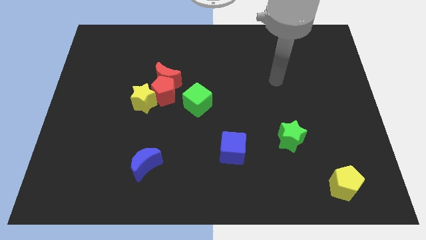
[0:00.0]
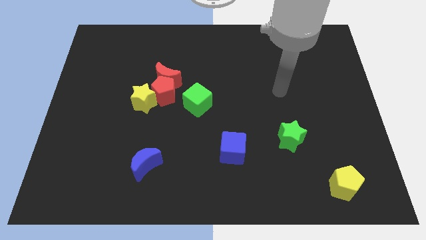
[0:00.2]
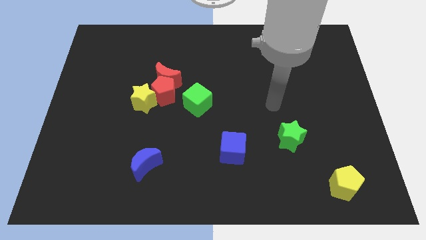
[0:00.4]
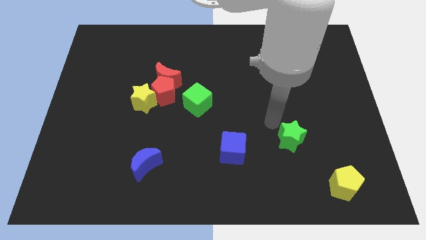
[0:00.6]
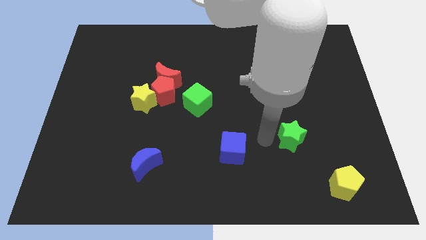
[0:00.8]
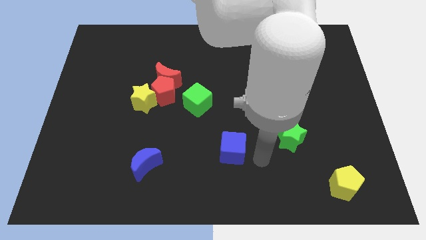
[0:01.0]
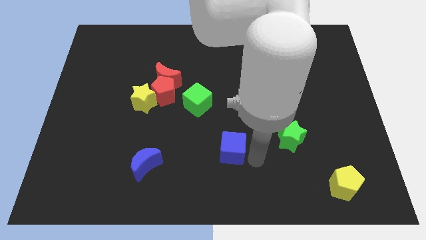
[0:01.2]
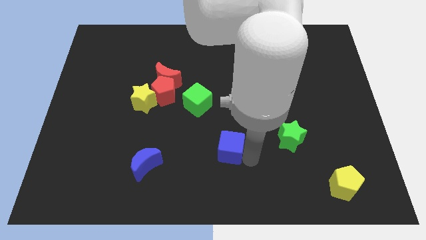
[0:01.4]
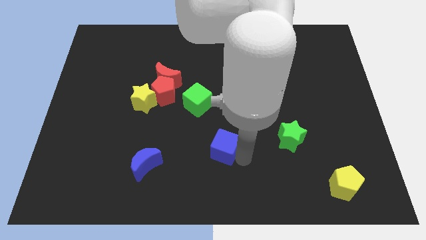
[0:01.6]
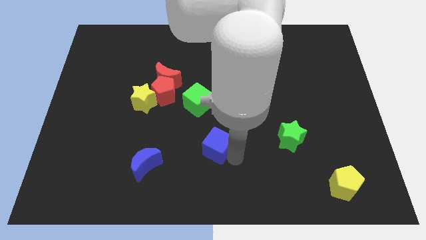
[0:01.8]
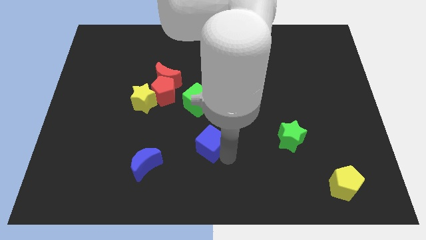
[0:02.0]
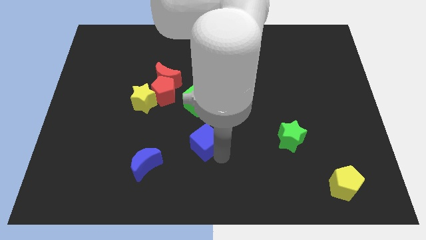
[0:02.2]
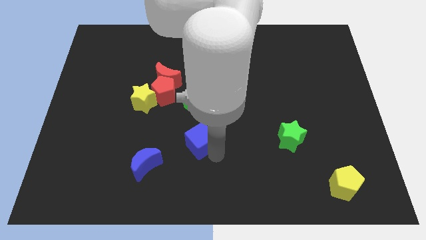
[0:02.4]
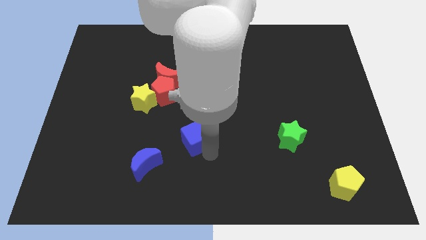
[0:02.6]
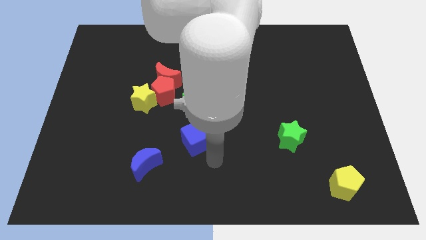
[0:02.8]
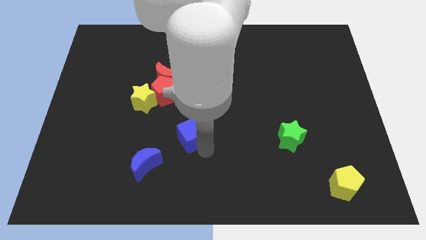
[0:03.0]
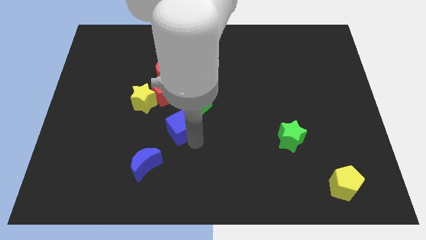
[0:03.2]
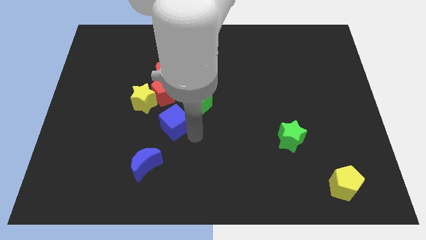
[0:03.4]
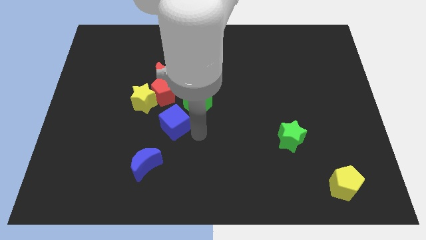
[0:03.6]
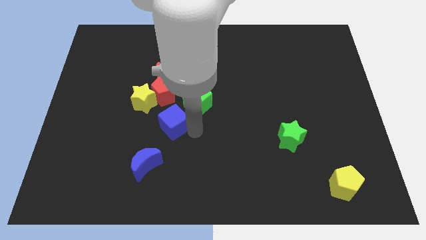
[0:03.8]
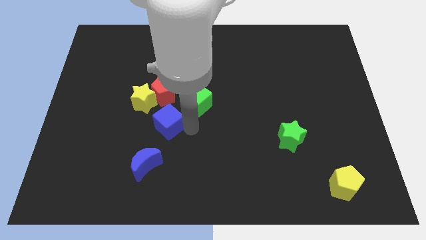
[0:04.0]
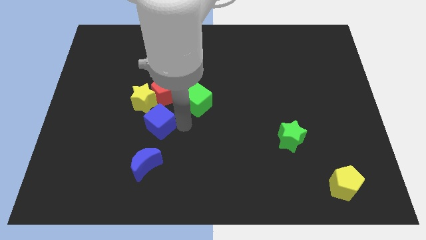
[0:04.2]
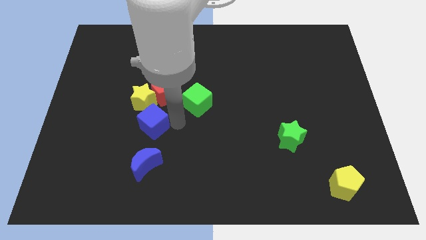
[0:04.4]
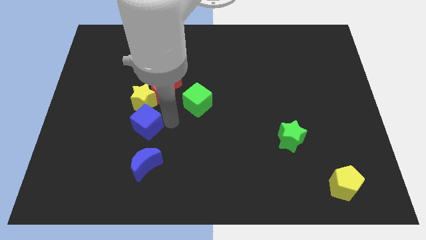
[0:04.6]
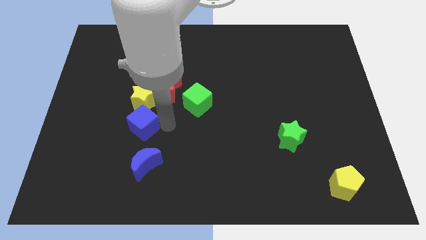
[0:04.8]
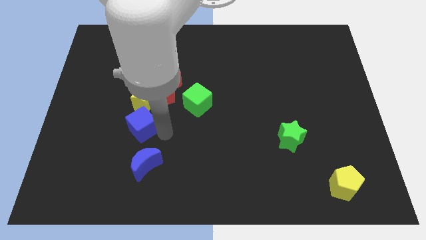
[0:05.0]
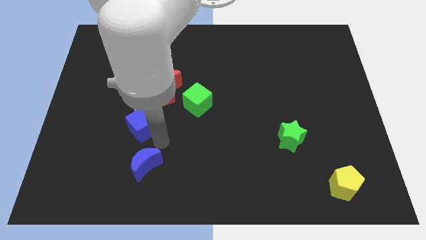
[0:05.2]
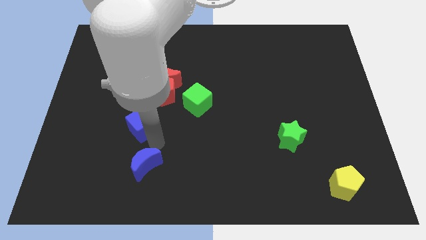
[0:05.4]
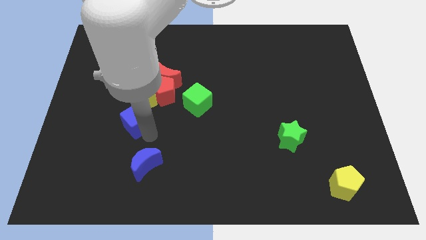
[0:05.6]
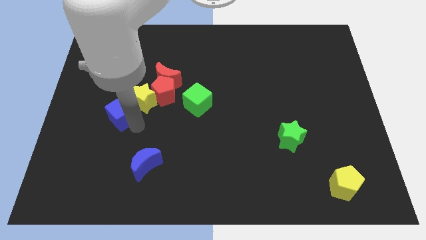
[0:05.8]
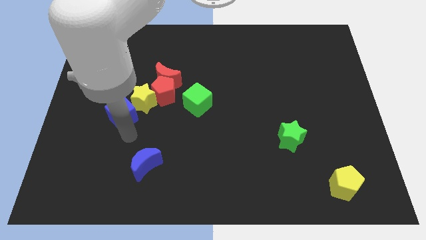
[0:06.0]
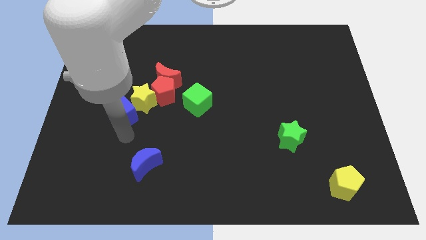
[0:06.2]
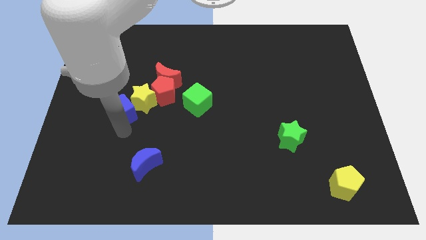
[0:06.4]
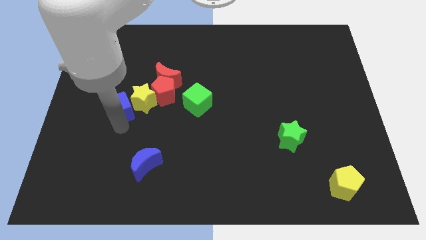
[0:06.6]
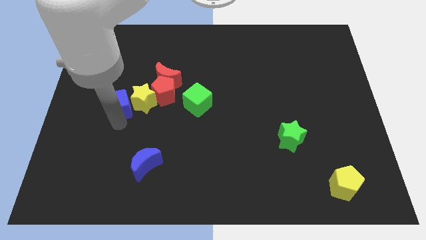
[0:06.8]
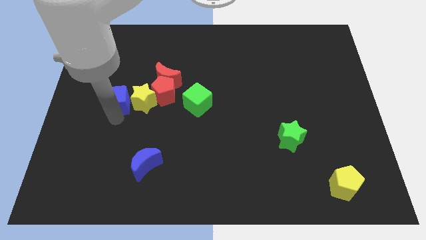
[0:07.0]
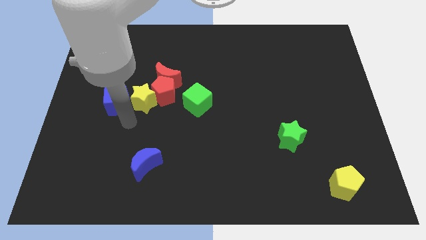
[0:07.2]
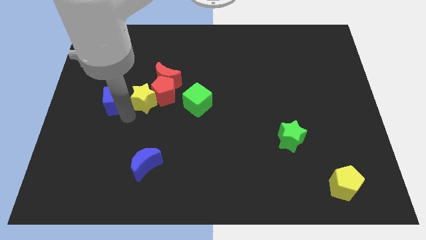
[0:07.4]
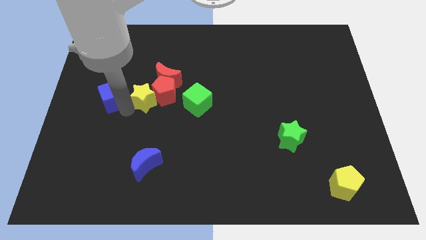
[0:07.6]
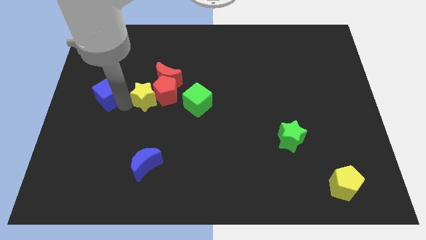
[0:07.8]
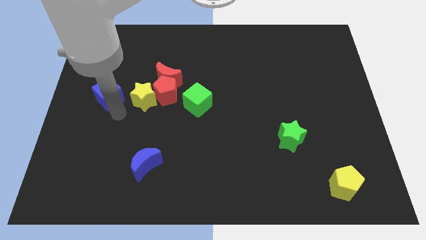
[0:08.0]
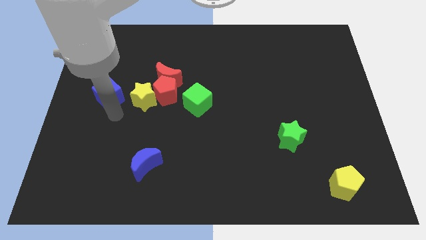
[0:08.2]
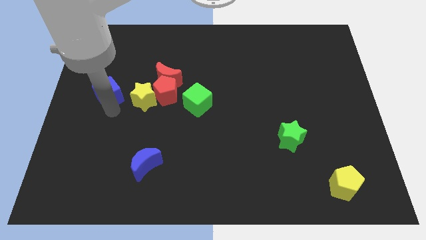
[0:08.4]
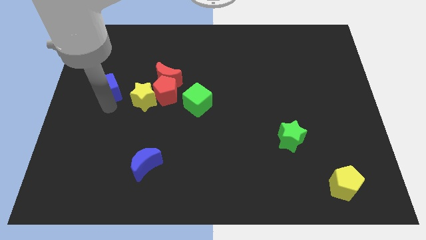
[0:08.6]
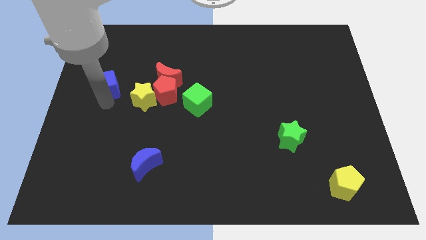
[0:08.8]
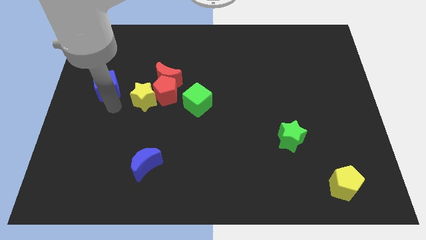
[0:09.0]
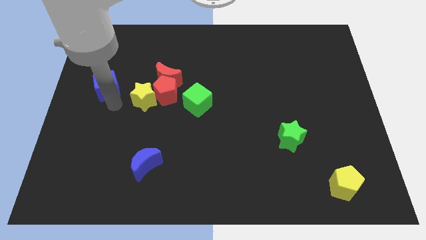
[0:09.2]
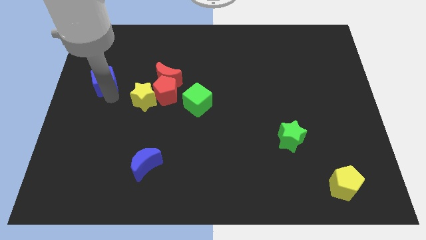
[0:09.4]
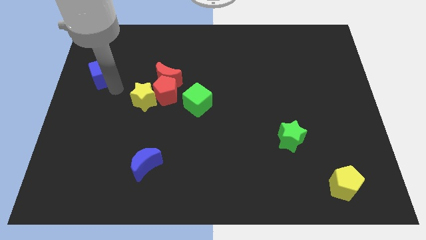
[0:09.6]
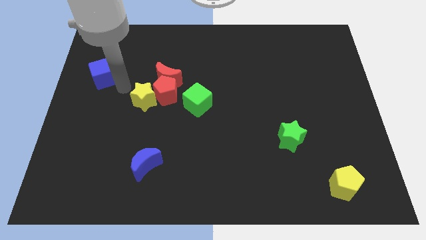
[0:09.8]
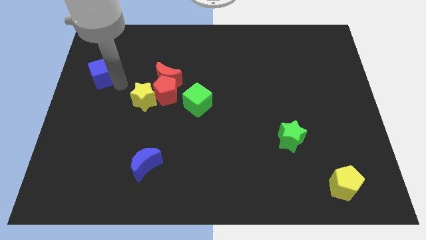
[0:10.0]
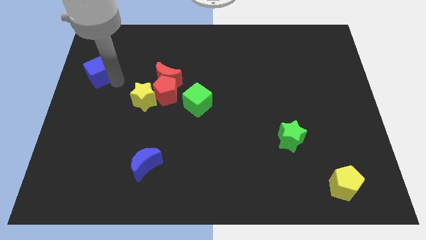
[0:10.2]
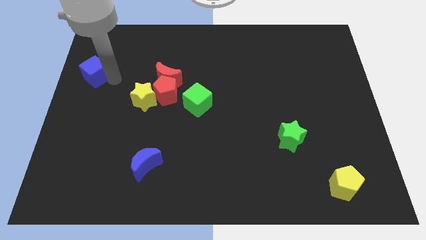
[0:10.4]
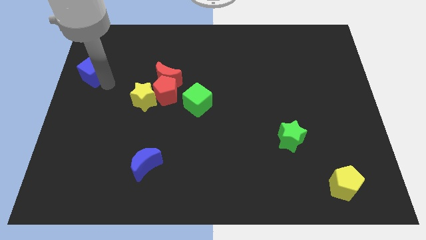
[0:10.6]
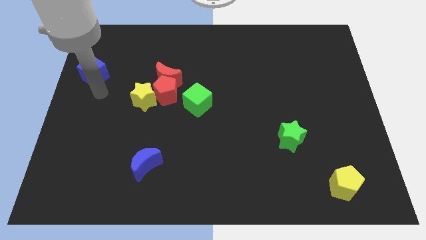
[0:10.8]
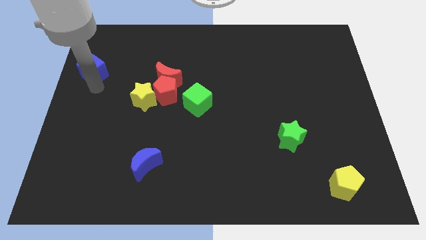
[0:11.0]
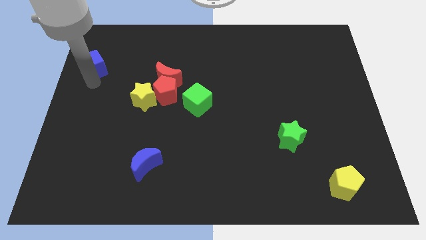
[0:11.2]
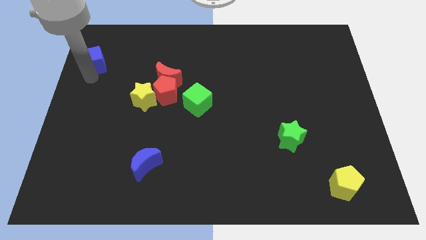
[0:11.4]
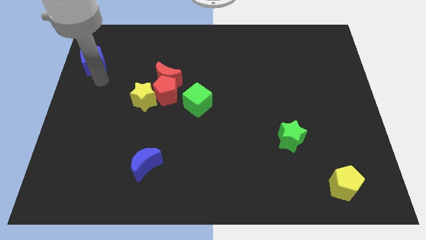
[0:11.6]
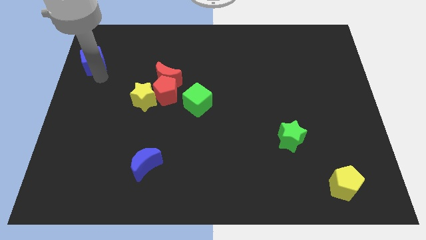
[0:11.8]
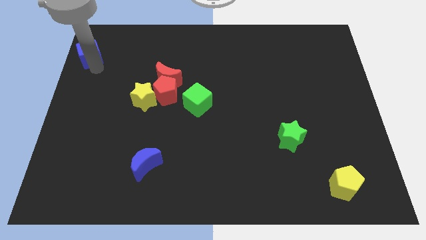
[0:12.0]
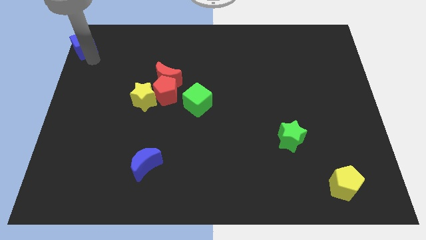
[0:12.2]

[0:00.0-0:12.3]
slide the blue cube to the upper left corner
